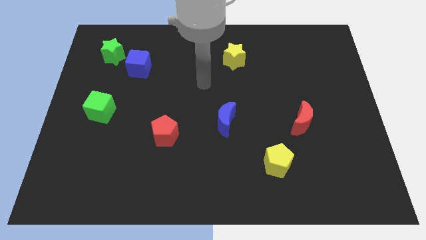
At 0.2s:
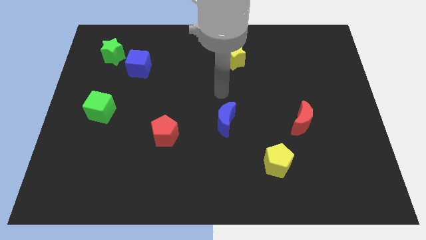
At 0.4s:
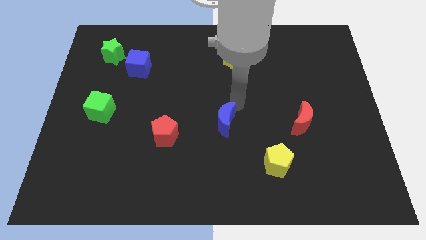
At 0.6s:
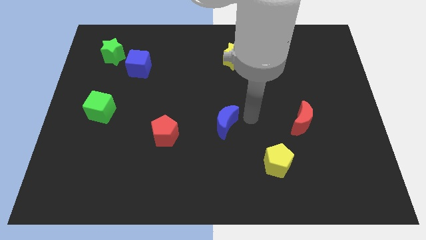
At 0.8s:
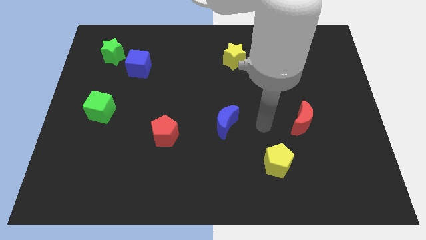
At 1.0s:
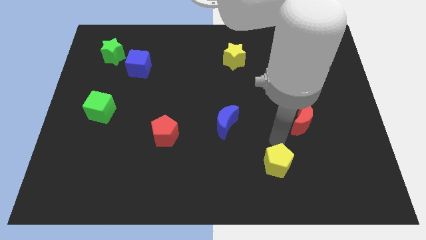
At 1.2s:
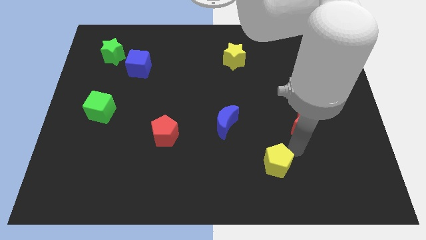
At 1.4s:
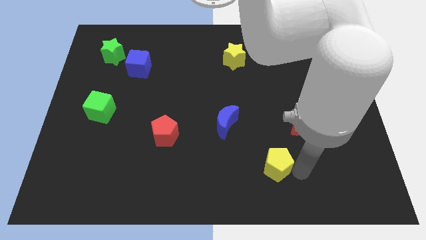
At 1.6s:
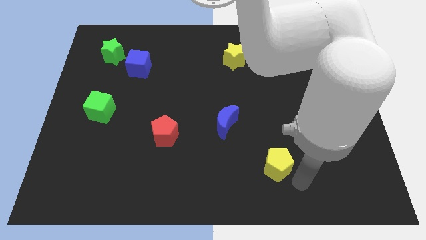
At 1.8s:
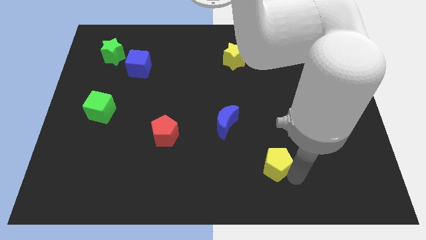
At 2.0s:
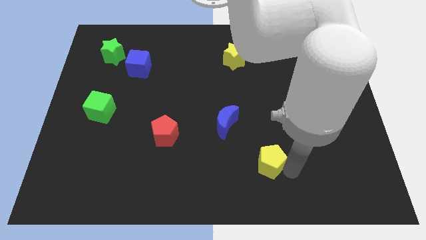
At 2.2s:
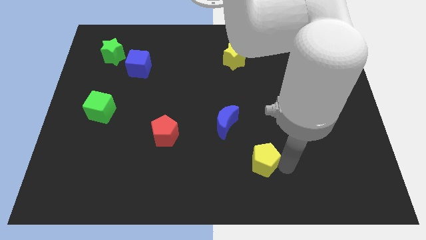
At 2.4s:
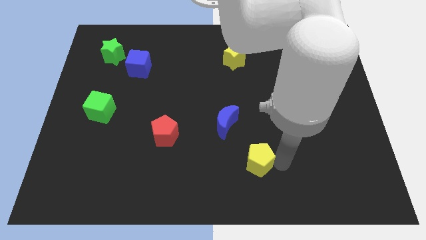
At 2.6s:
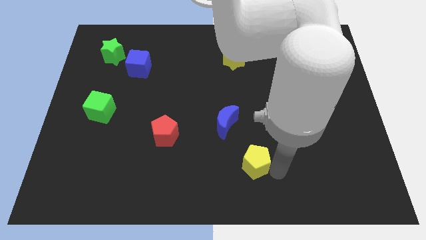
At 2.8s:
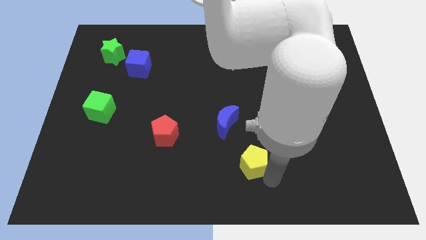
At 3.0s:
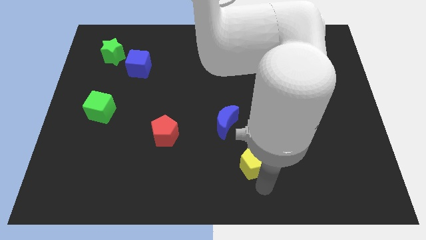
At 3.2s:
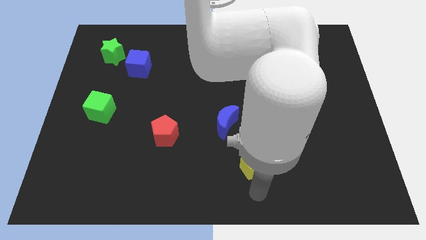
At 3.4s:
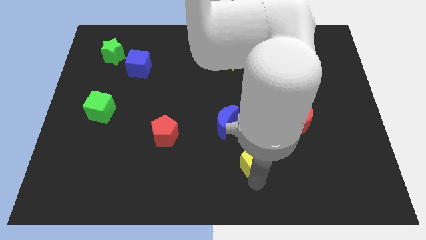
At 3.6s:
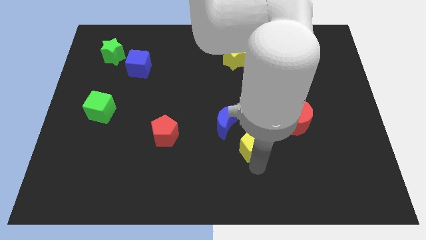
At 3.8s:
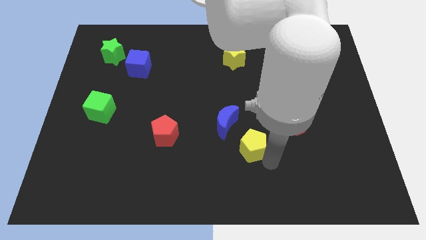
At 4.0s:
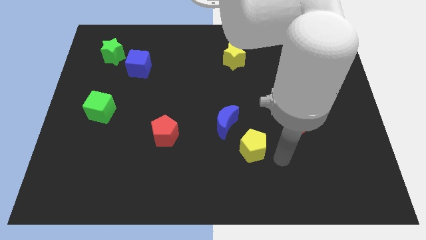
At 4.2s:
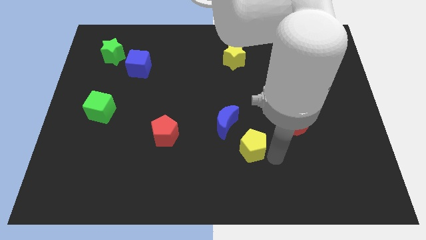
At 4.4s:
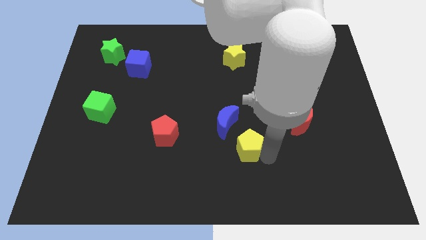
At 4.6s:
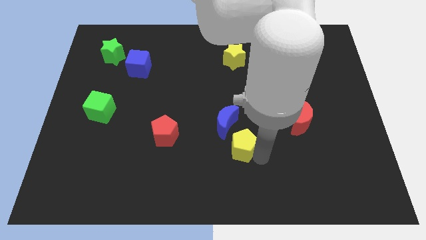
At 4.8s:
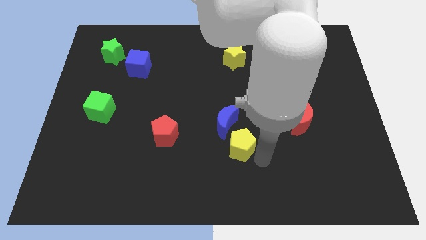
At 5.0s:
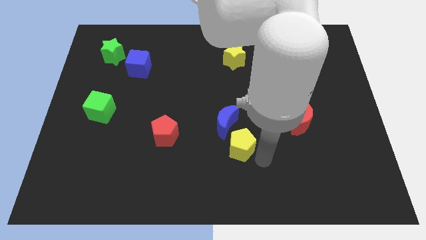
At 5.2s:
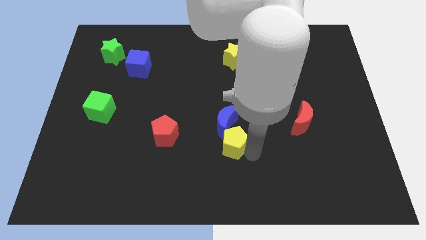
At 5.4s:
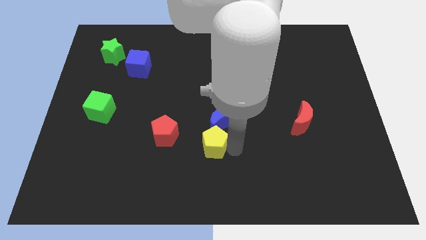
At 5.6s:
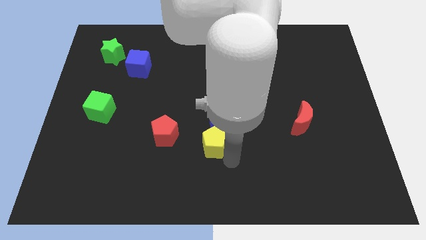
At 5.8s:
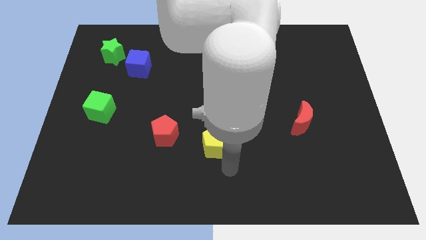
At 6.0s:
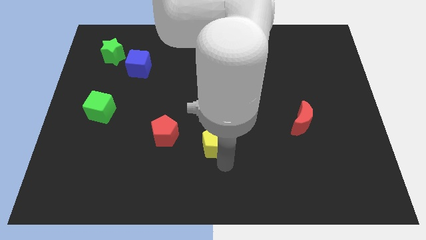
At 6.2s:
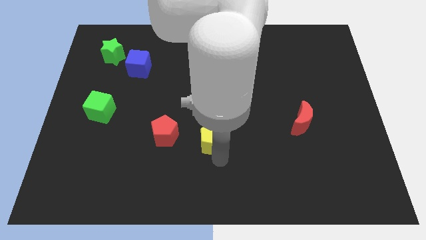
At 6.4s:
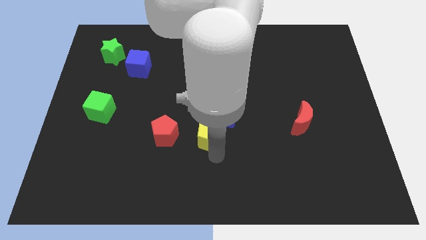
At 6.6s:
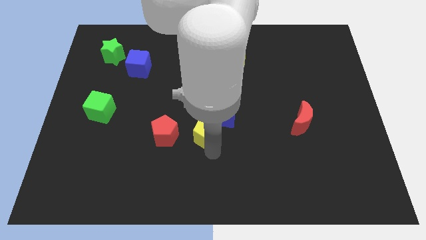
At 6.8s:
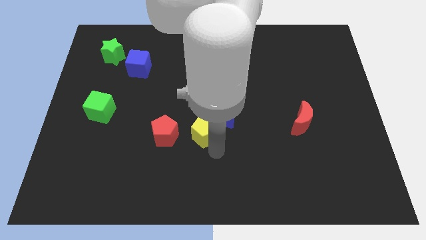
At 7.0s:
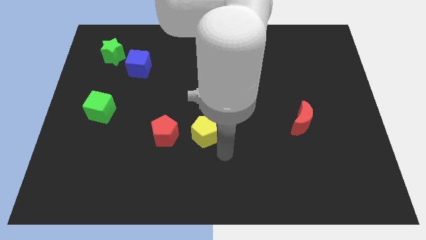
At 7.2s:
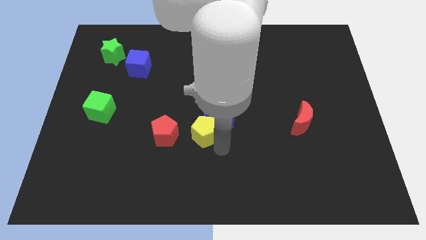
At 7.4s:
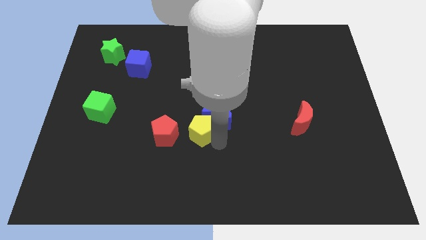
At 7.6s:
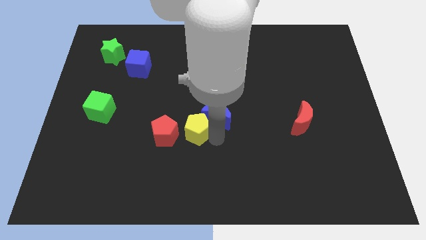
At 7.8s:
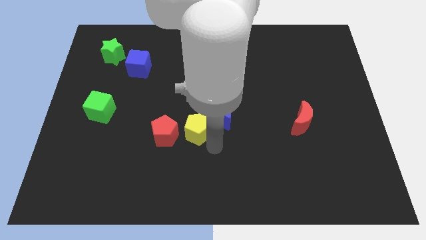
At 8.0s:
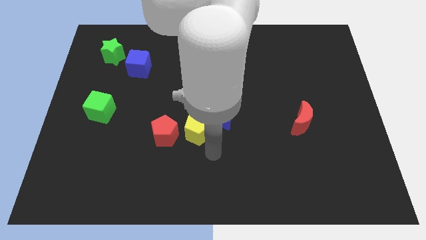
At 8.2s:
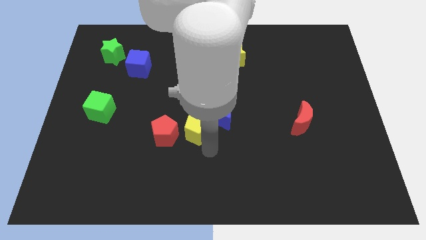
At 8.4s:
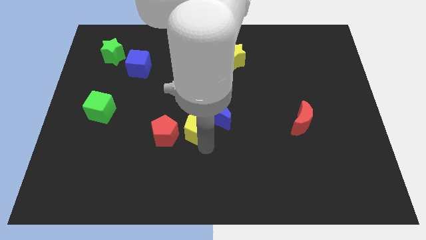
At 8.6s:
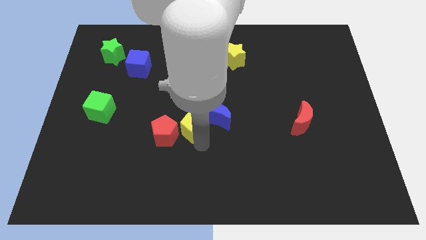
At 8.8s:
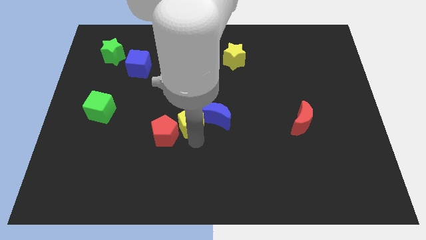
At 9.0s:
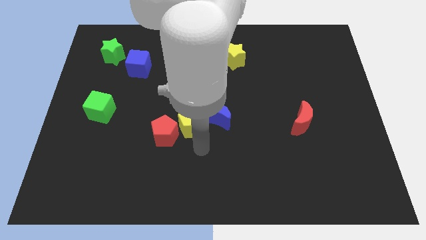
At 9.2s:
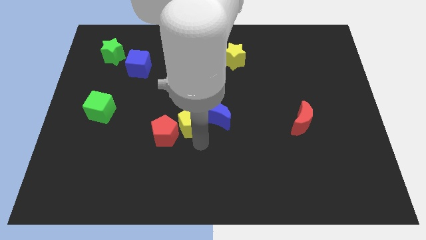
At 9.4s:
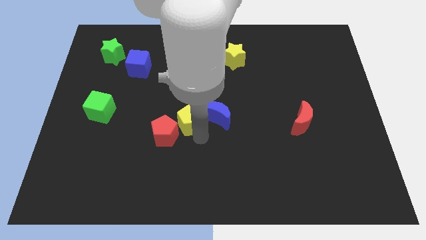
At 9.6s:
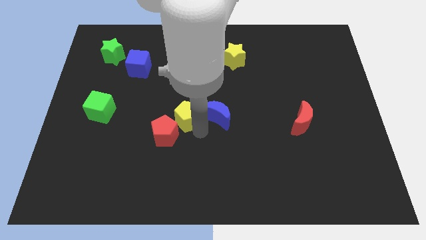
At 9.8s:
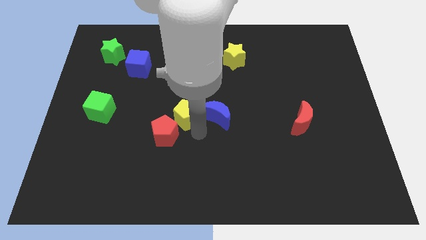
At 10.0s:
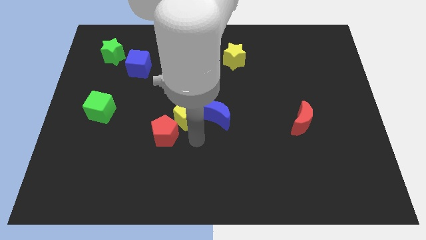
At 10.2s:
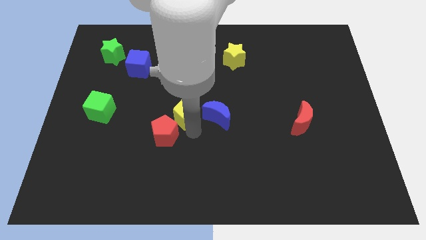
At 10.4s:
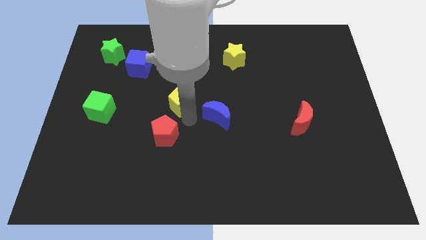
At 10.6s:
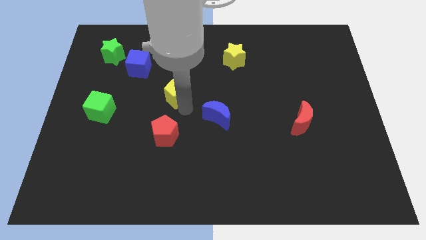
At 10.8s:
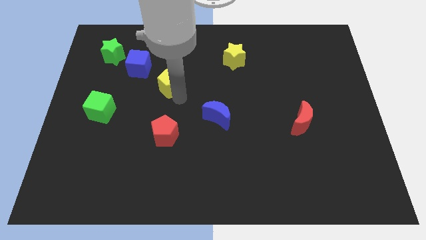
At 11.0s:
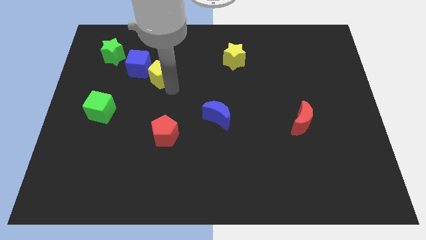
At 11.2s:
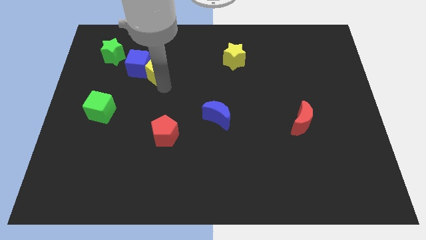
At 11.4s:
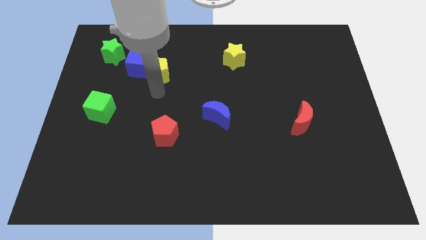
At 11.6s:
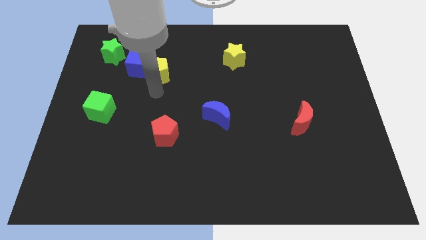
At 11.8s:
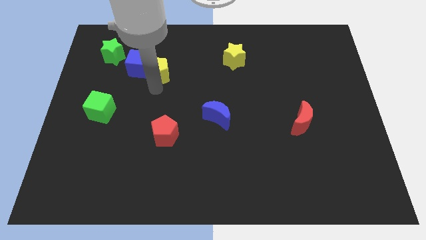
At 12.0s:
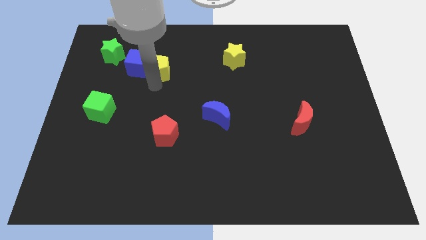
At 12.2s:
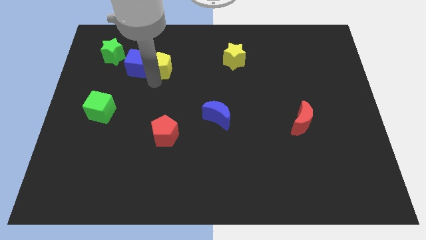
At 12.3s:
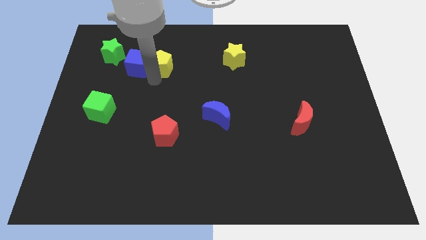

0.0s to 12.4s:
move the yellow pentagon just right of the green star

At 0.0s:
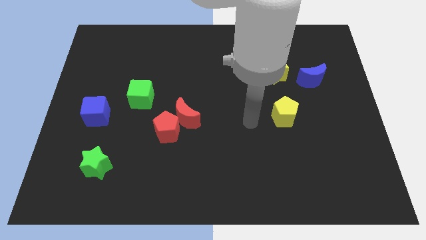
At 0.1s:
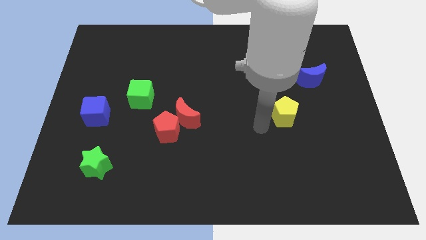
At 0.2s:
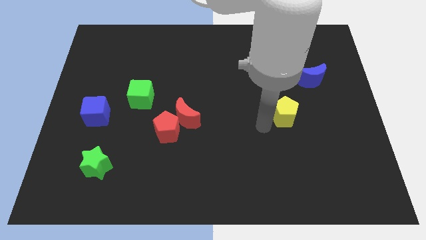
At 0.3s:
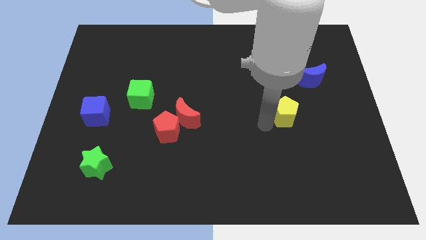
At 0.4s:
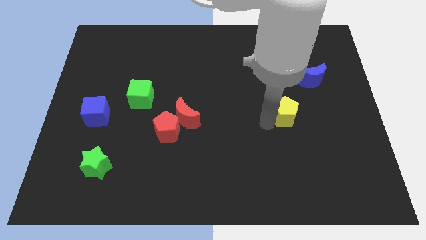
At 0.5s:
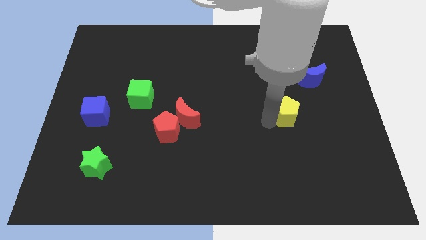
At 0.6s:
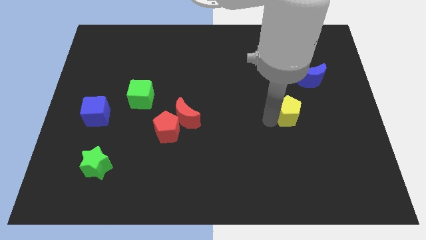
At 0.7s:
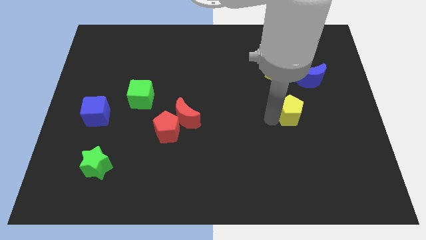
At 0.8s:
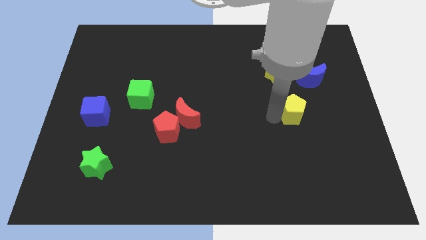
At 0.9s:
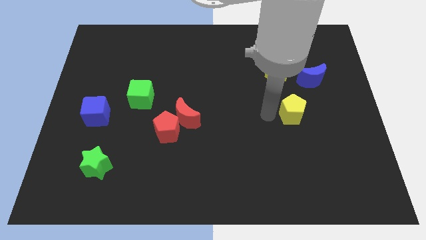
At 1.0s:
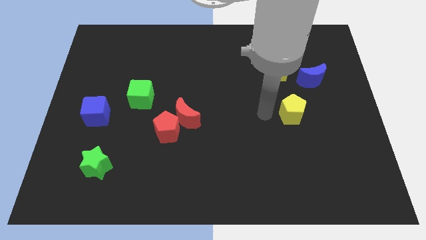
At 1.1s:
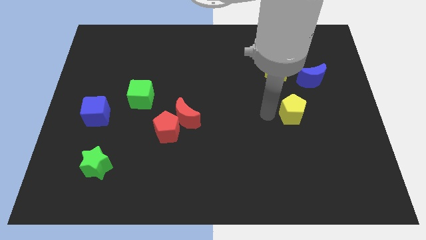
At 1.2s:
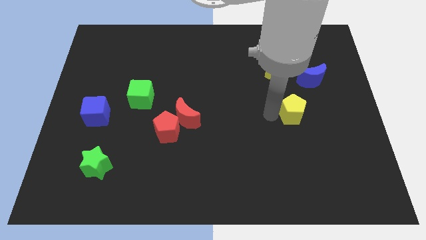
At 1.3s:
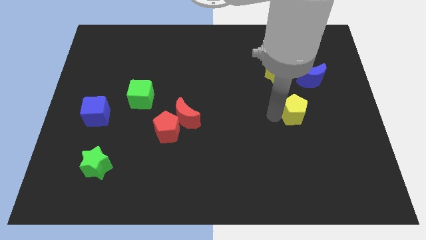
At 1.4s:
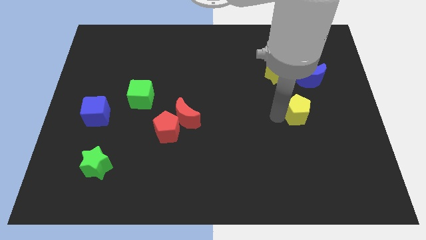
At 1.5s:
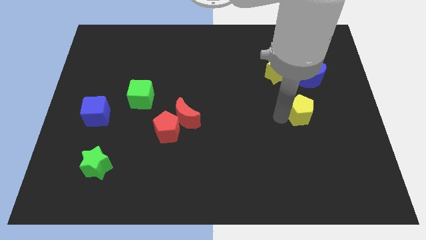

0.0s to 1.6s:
move the yellow pentagon below the blue moon

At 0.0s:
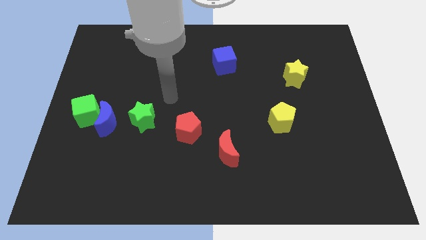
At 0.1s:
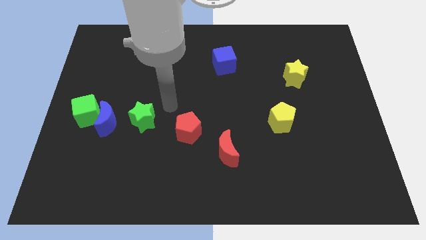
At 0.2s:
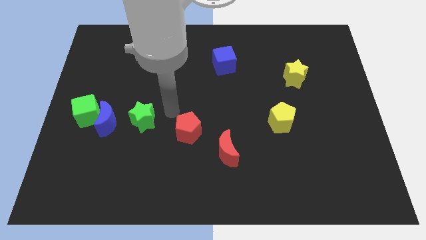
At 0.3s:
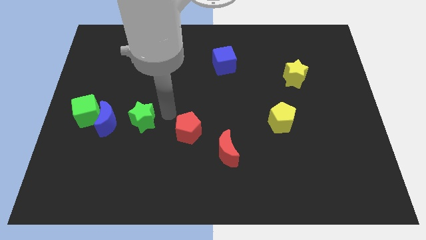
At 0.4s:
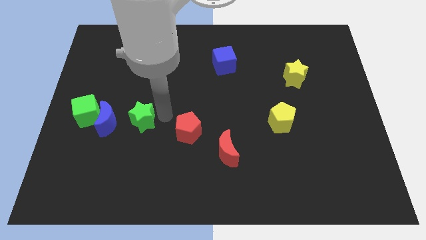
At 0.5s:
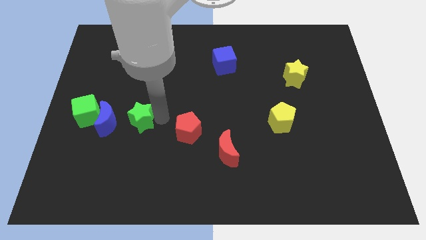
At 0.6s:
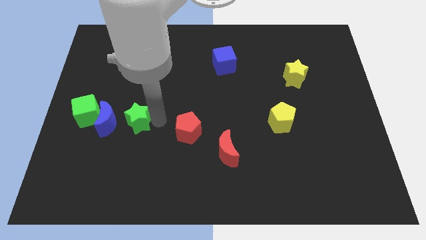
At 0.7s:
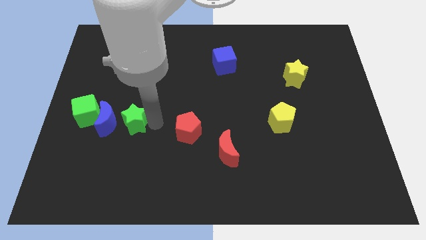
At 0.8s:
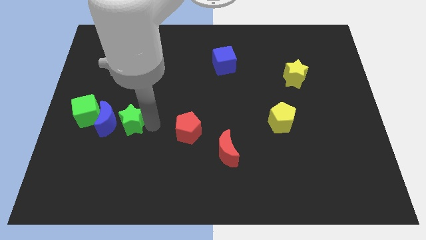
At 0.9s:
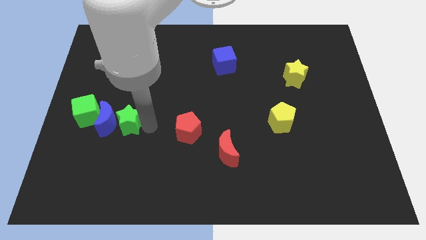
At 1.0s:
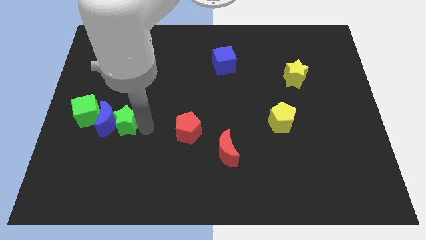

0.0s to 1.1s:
move the green star to the bottom right side of the green cube
